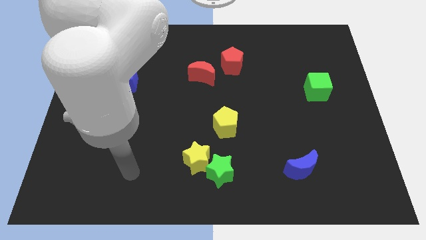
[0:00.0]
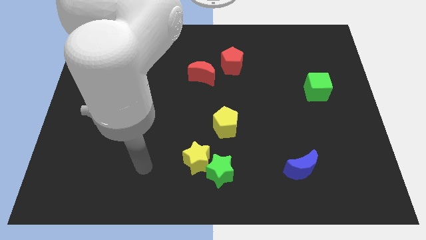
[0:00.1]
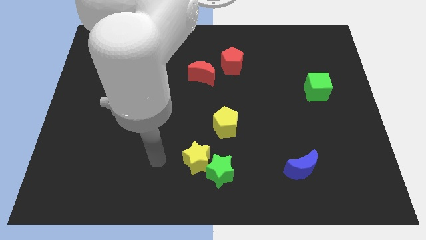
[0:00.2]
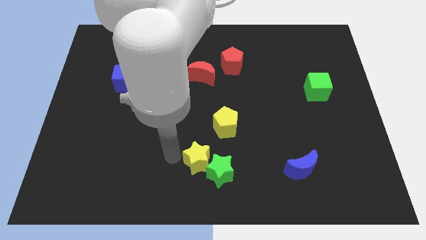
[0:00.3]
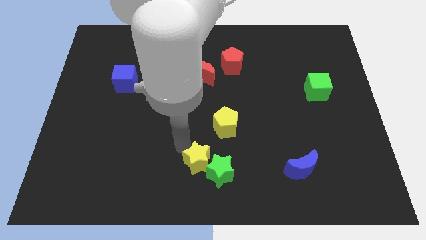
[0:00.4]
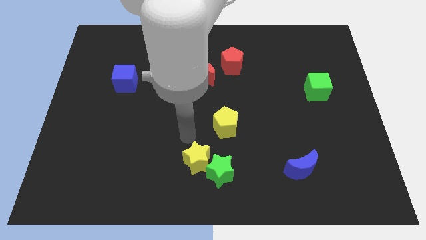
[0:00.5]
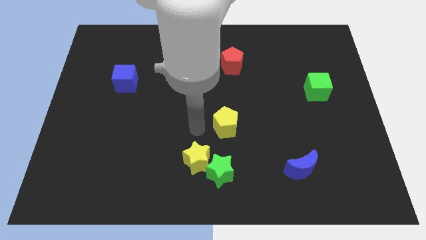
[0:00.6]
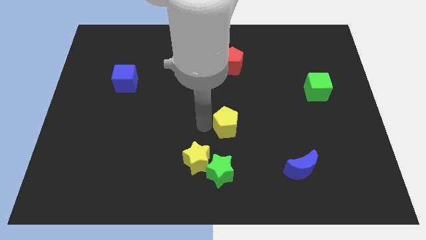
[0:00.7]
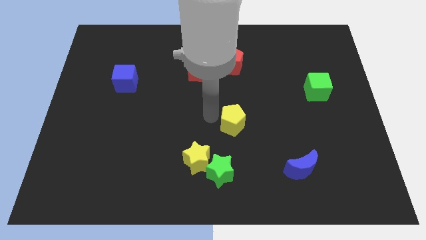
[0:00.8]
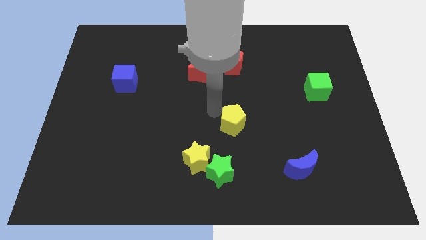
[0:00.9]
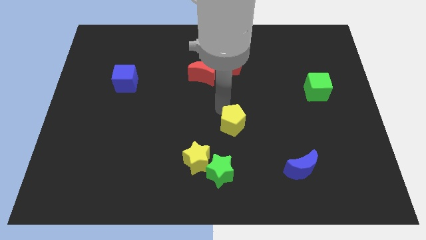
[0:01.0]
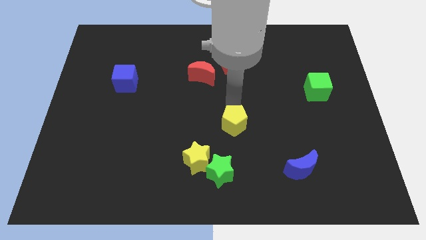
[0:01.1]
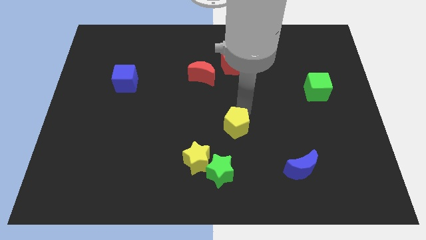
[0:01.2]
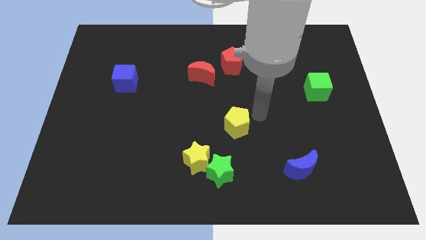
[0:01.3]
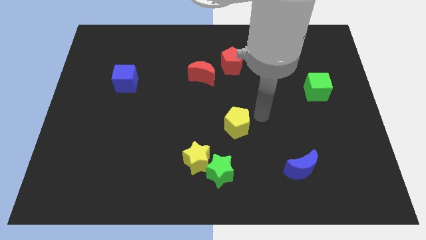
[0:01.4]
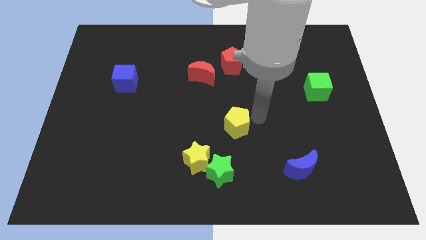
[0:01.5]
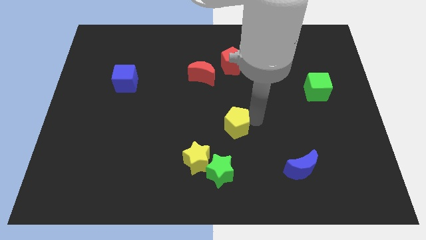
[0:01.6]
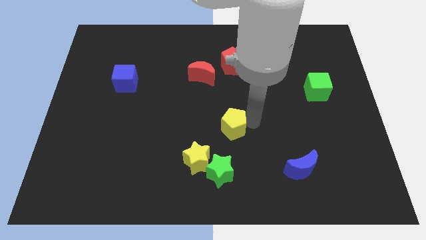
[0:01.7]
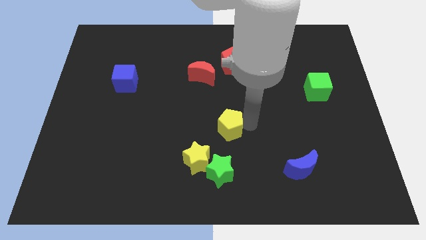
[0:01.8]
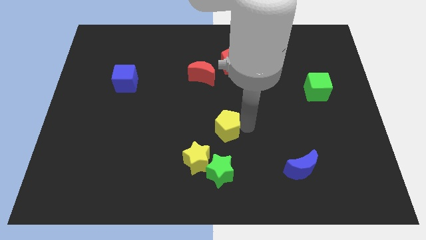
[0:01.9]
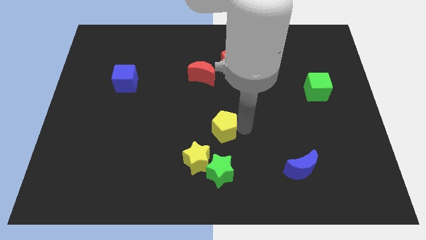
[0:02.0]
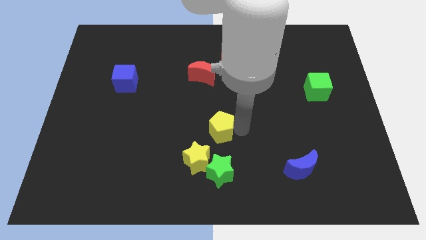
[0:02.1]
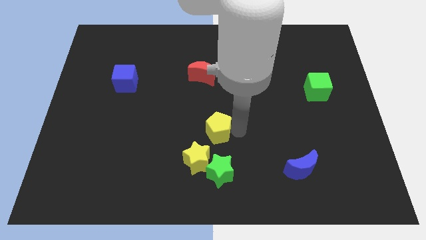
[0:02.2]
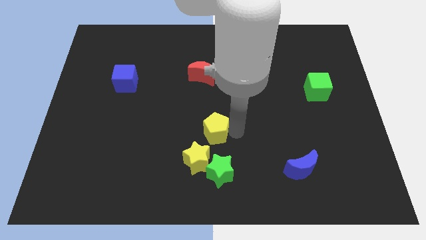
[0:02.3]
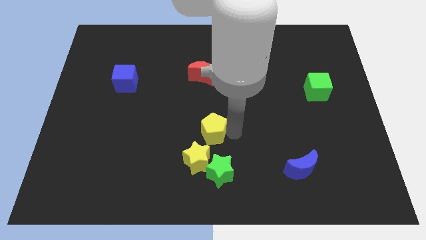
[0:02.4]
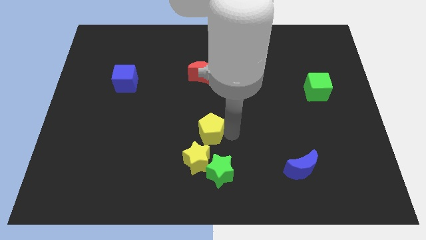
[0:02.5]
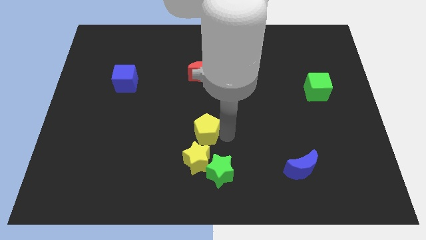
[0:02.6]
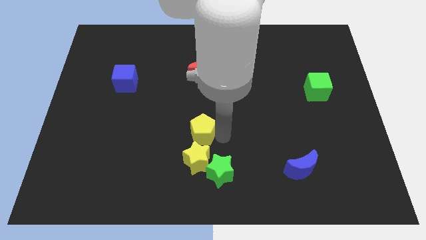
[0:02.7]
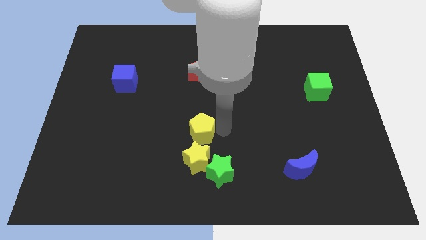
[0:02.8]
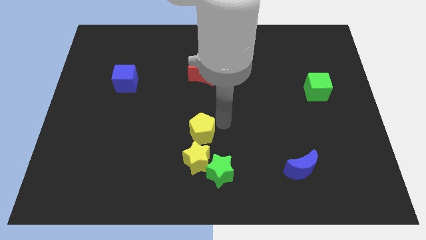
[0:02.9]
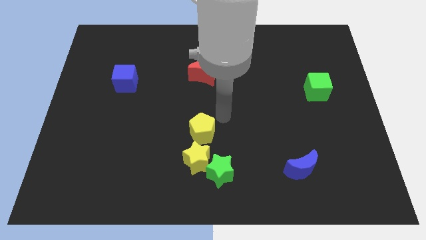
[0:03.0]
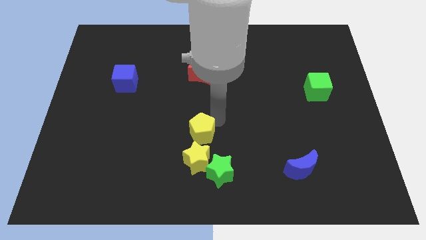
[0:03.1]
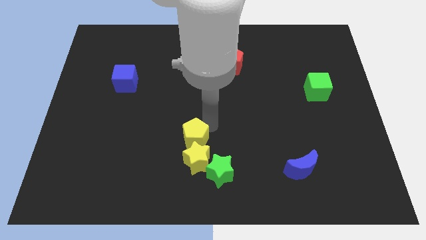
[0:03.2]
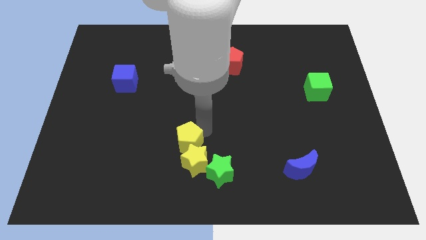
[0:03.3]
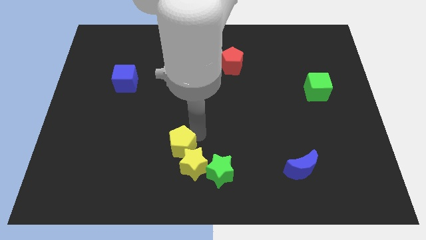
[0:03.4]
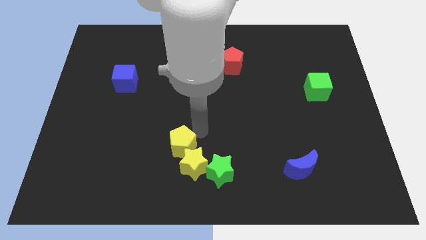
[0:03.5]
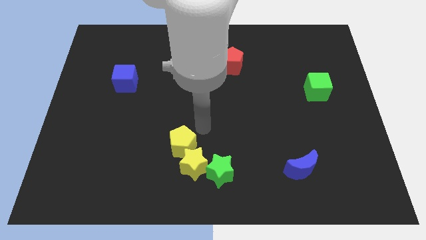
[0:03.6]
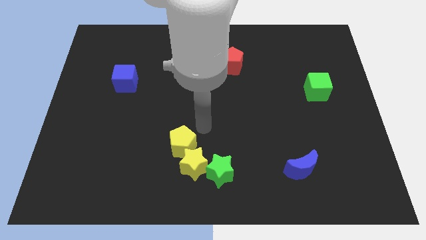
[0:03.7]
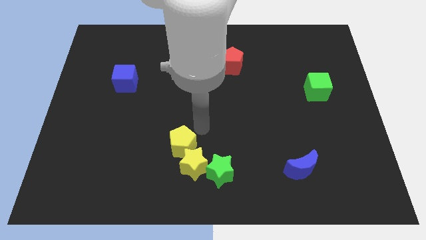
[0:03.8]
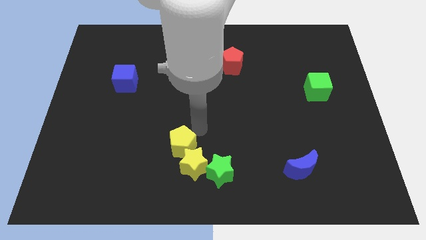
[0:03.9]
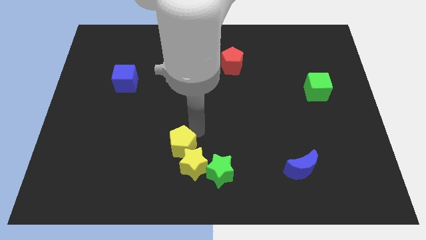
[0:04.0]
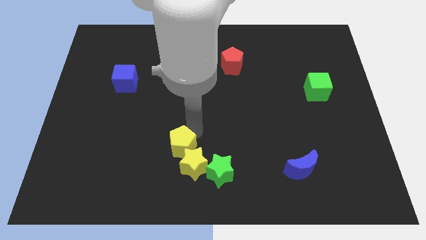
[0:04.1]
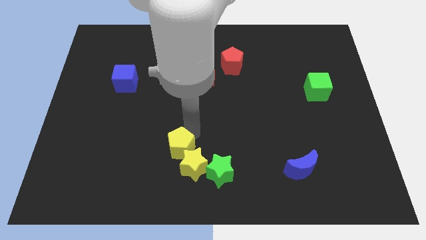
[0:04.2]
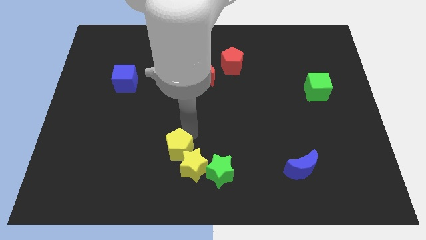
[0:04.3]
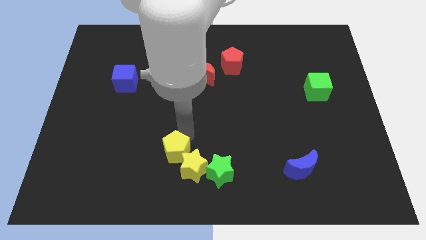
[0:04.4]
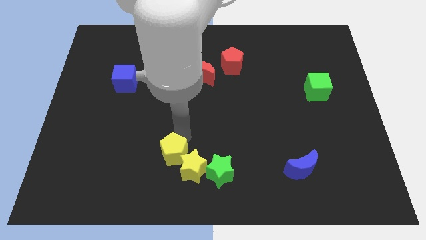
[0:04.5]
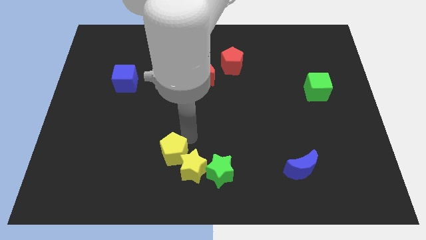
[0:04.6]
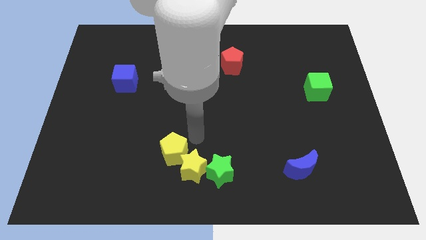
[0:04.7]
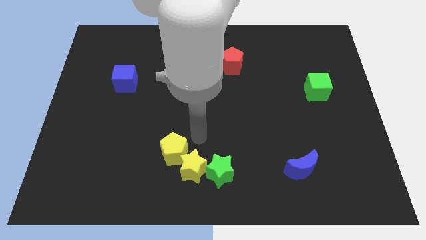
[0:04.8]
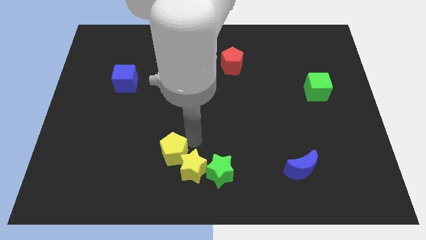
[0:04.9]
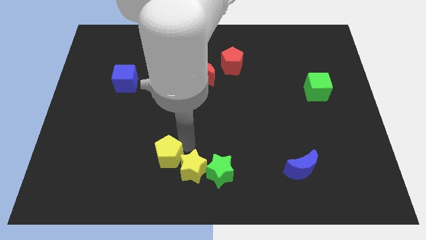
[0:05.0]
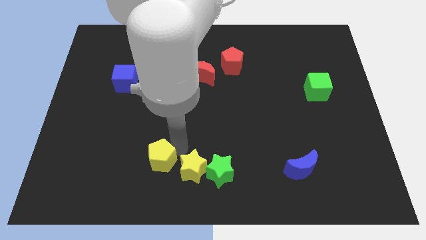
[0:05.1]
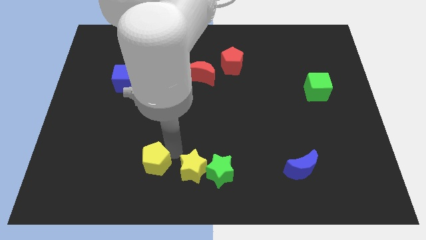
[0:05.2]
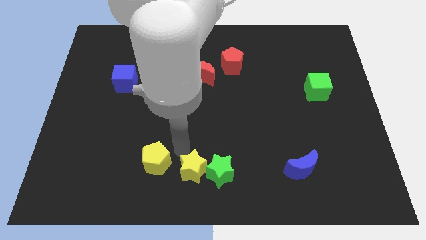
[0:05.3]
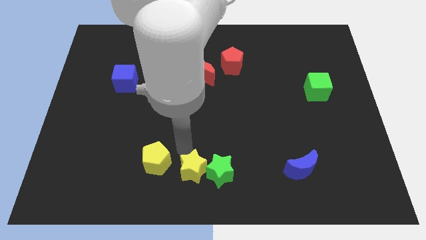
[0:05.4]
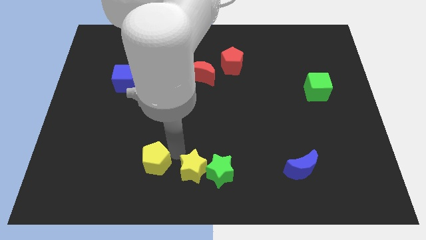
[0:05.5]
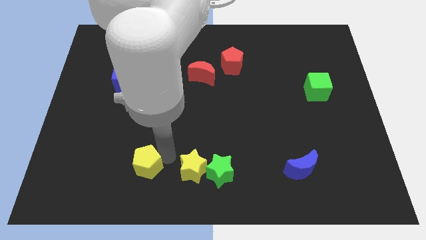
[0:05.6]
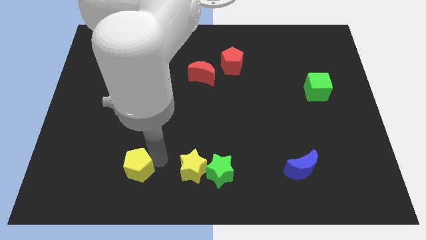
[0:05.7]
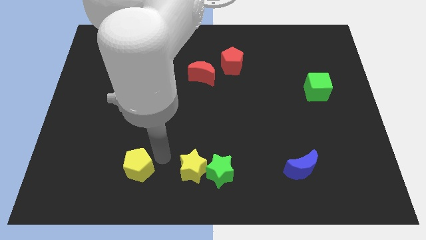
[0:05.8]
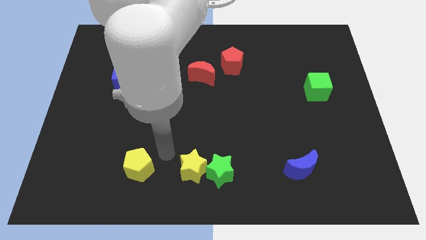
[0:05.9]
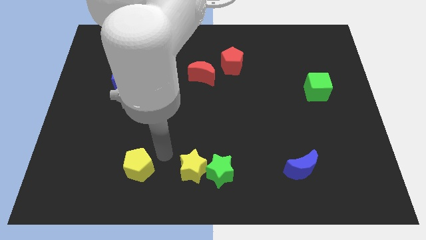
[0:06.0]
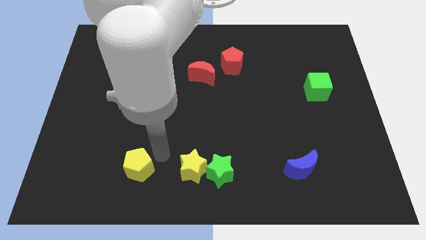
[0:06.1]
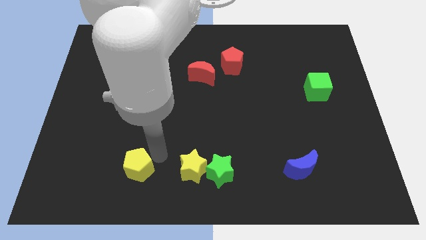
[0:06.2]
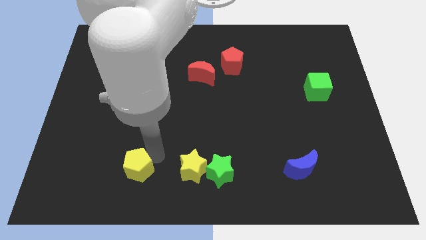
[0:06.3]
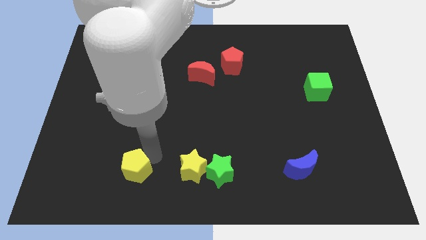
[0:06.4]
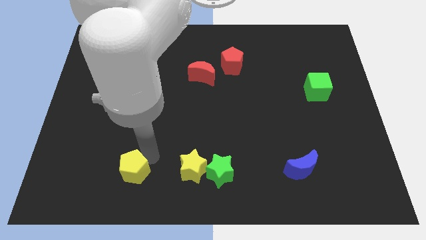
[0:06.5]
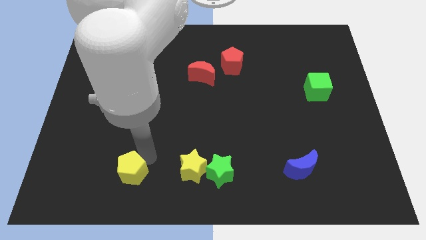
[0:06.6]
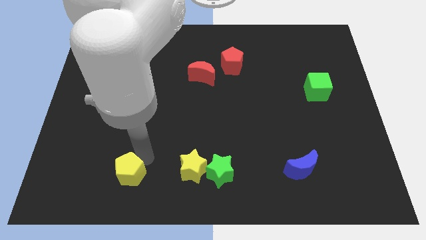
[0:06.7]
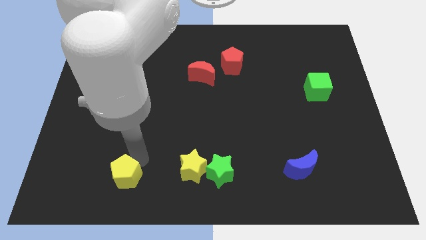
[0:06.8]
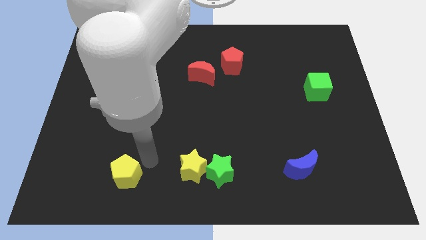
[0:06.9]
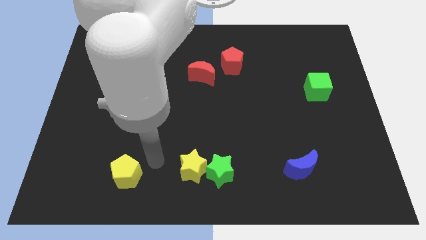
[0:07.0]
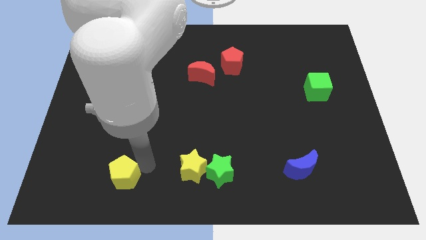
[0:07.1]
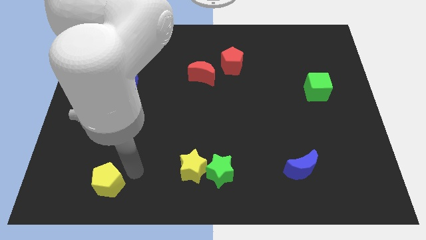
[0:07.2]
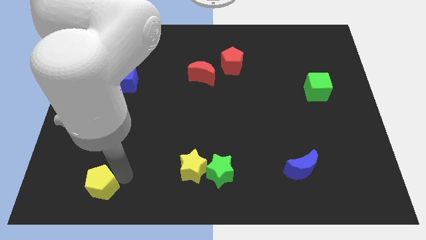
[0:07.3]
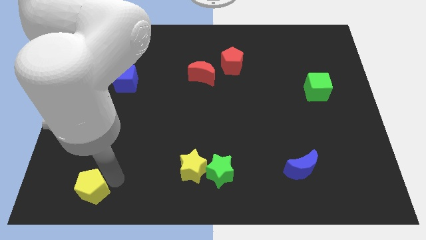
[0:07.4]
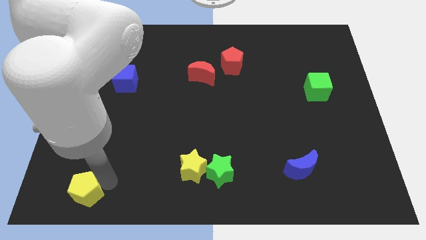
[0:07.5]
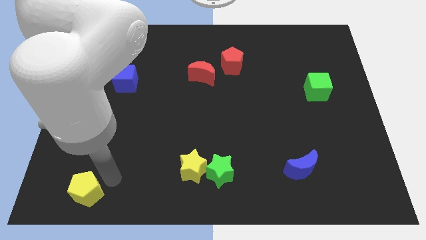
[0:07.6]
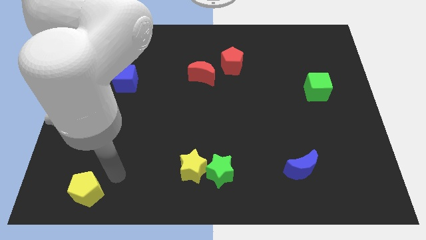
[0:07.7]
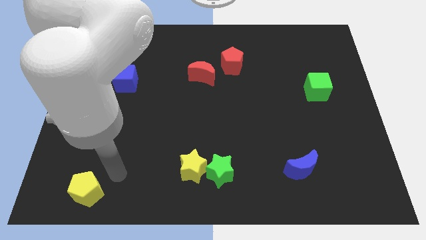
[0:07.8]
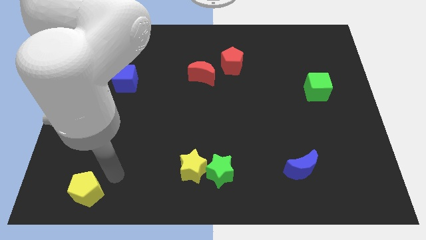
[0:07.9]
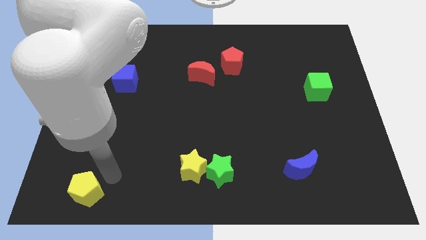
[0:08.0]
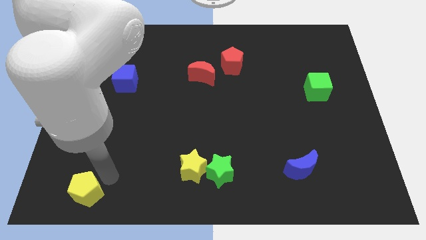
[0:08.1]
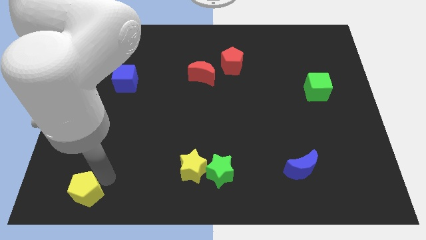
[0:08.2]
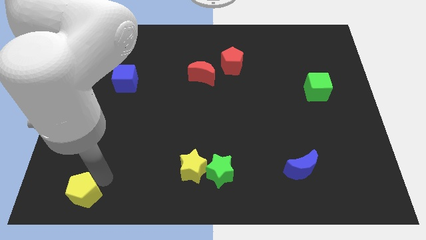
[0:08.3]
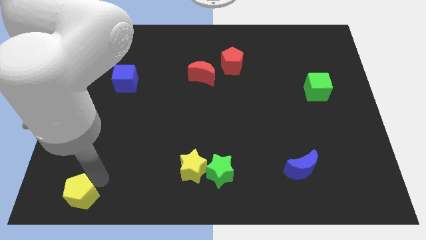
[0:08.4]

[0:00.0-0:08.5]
slide the yellow pentagon to the bottom left
